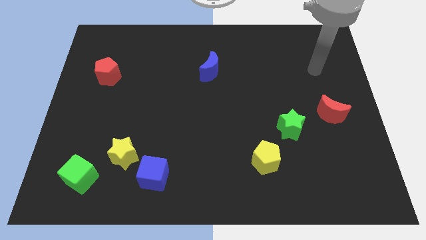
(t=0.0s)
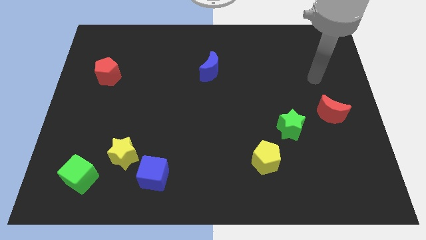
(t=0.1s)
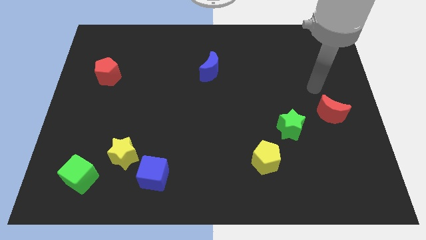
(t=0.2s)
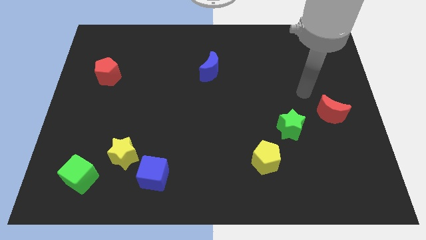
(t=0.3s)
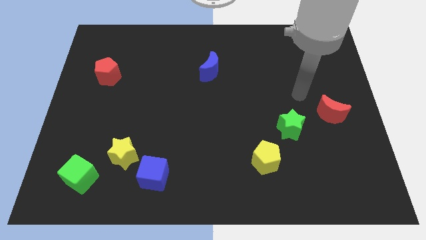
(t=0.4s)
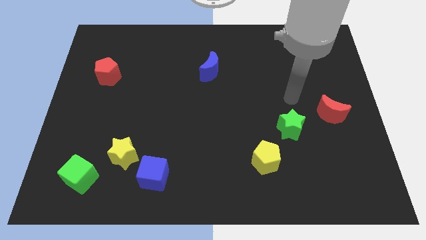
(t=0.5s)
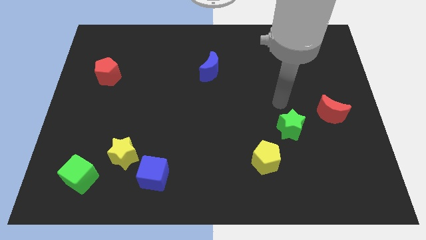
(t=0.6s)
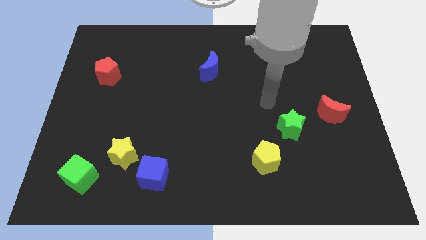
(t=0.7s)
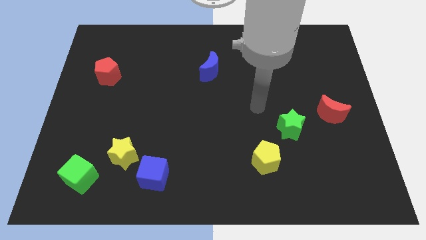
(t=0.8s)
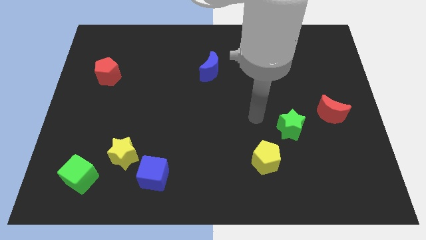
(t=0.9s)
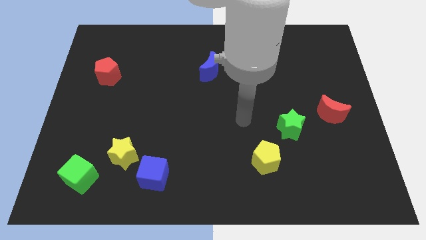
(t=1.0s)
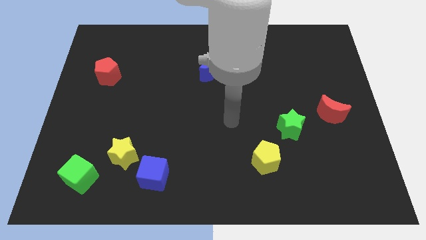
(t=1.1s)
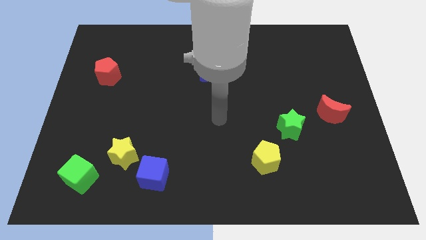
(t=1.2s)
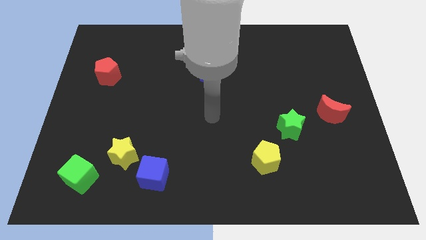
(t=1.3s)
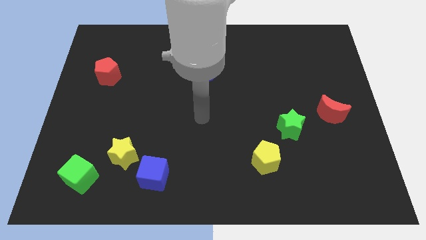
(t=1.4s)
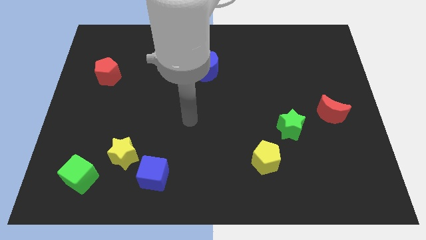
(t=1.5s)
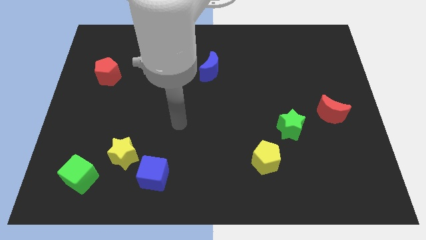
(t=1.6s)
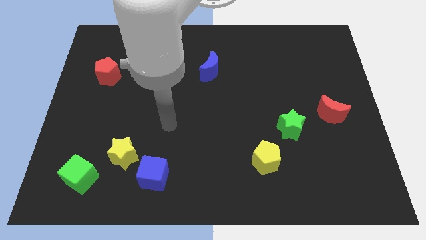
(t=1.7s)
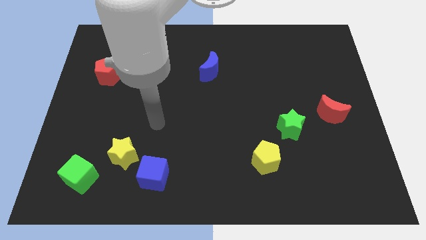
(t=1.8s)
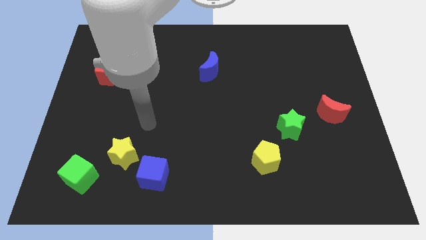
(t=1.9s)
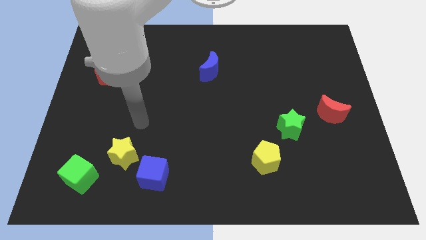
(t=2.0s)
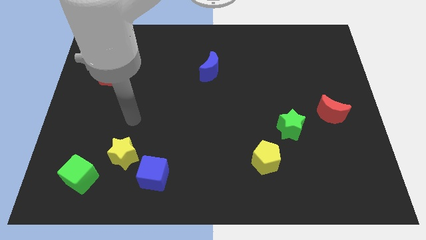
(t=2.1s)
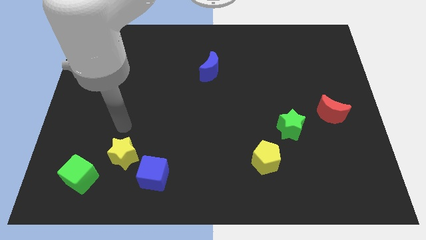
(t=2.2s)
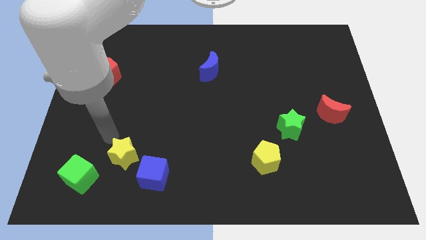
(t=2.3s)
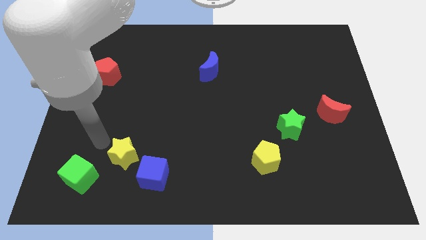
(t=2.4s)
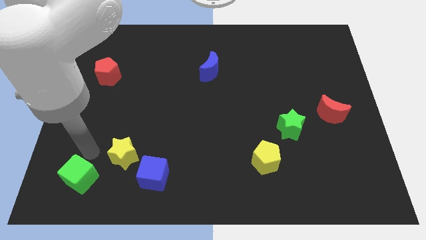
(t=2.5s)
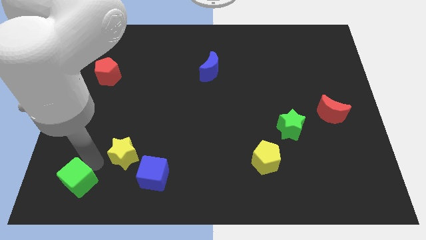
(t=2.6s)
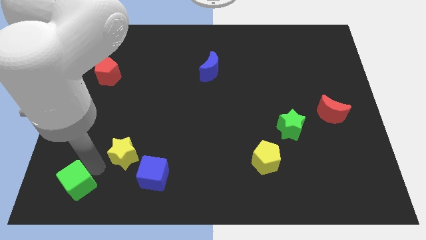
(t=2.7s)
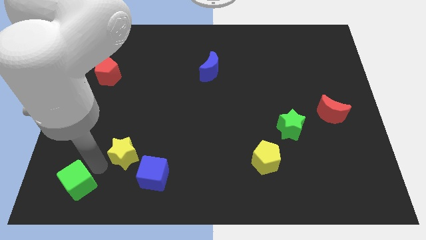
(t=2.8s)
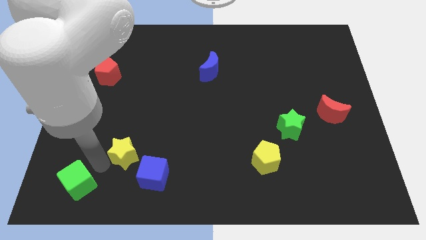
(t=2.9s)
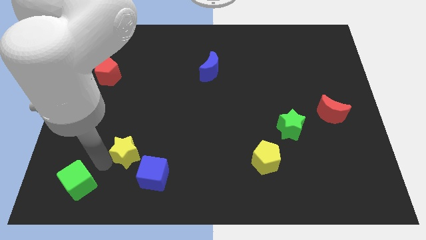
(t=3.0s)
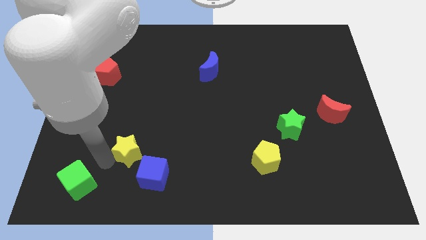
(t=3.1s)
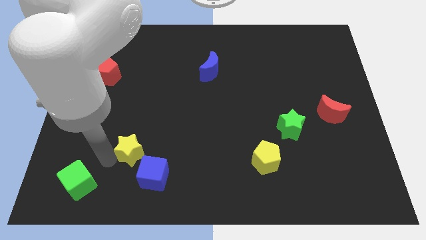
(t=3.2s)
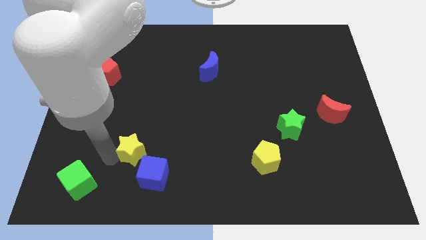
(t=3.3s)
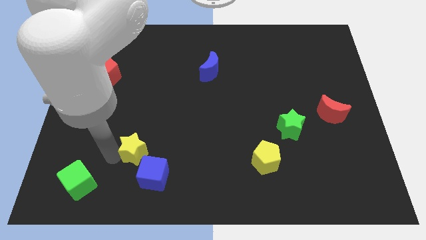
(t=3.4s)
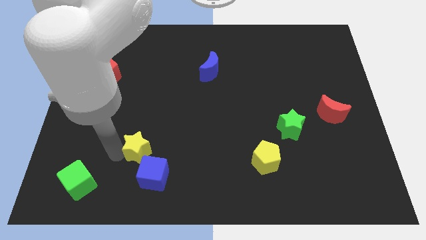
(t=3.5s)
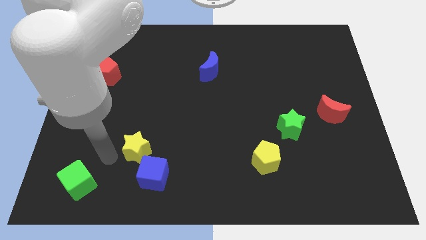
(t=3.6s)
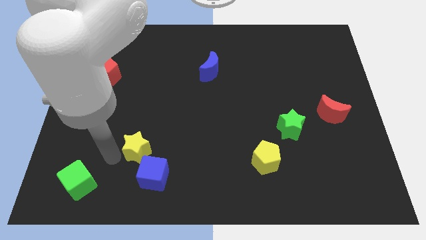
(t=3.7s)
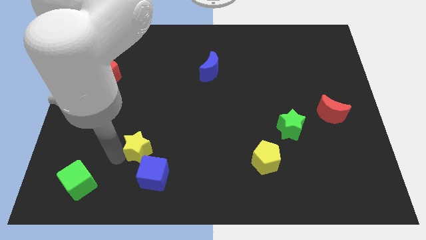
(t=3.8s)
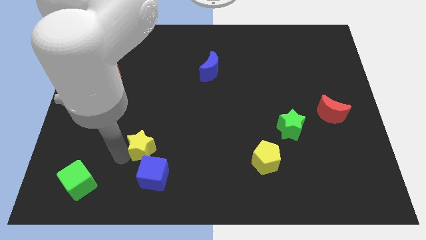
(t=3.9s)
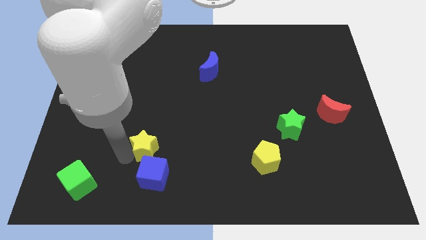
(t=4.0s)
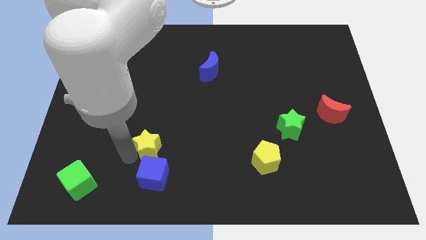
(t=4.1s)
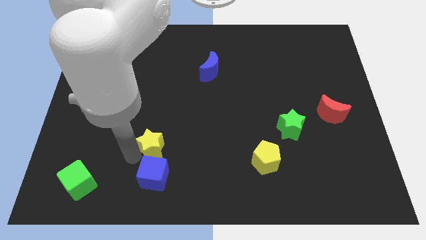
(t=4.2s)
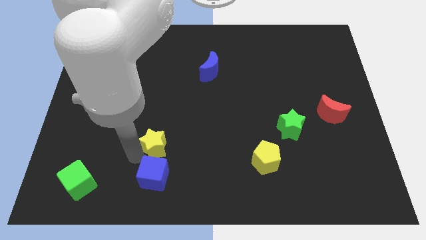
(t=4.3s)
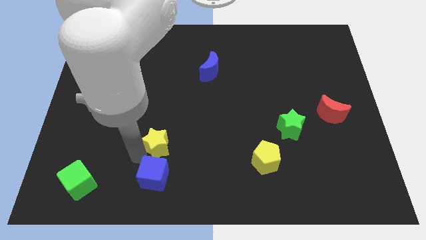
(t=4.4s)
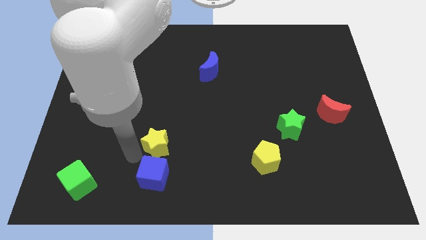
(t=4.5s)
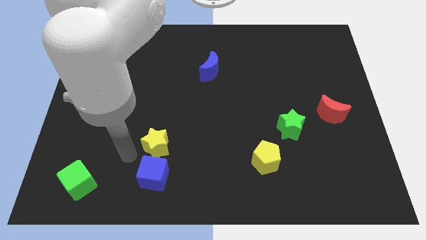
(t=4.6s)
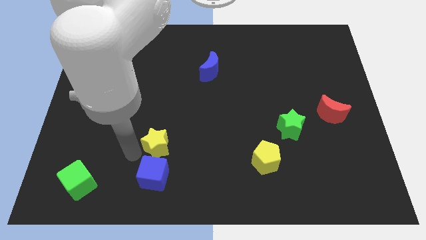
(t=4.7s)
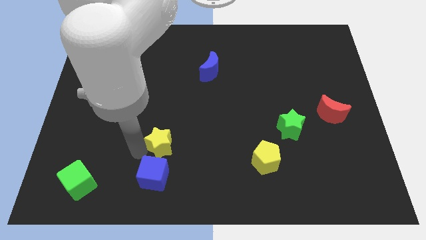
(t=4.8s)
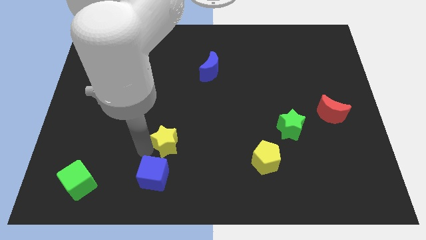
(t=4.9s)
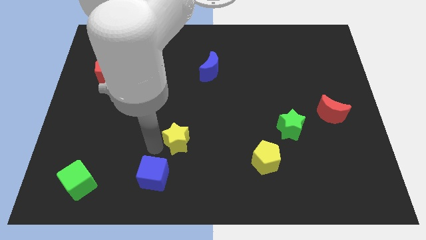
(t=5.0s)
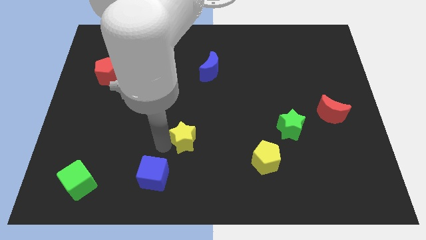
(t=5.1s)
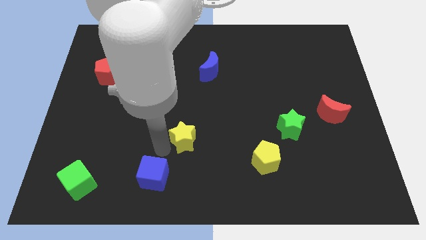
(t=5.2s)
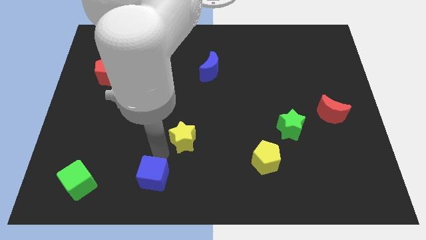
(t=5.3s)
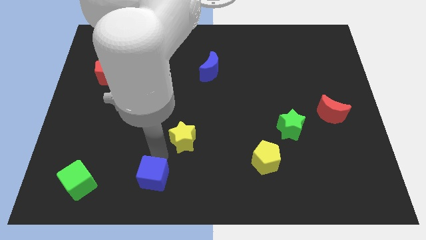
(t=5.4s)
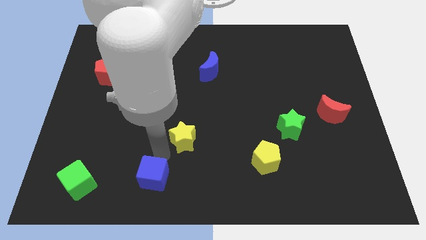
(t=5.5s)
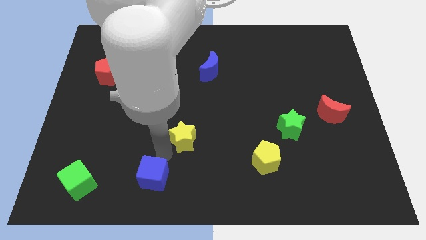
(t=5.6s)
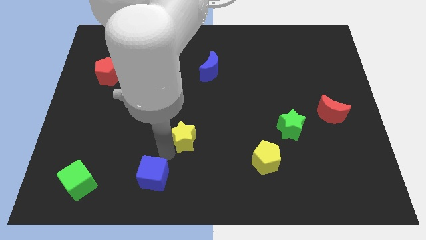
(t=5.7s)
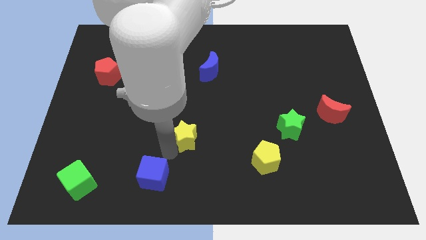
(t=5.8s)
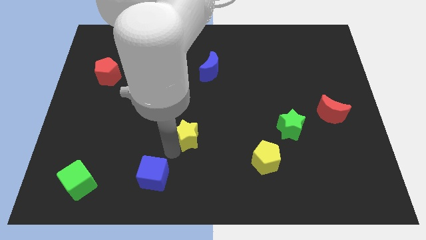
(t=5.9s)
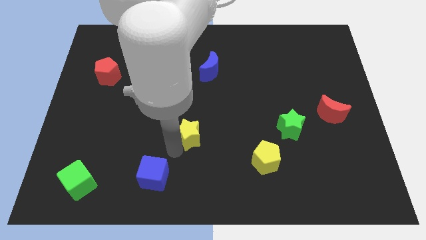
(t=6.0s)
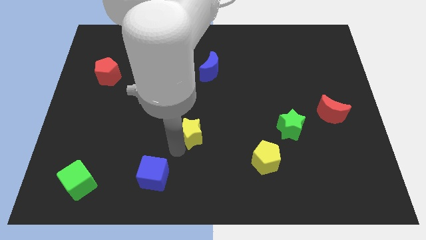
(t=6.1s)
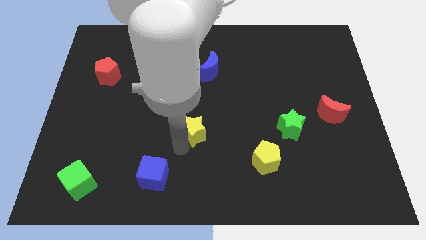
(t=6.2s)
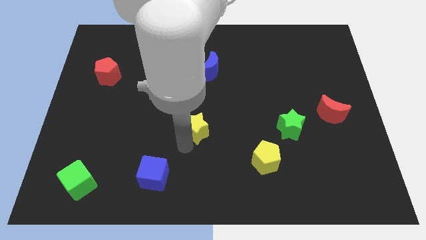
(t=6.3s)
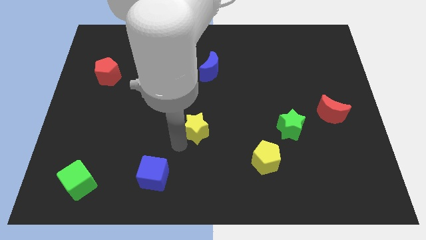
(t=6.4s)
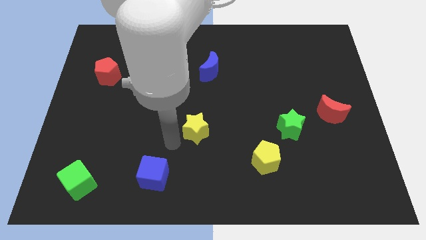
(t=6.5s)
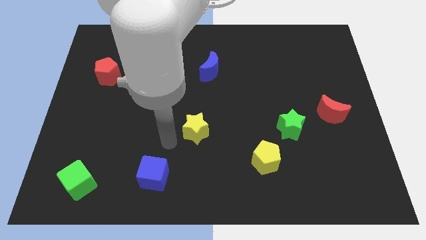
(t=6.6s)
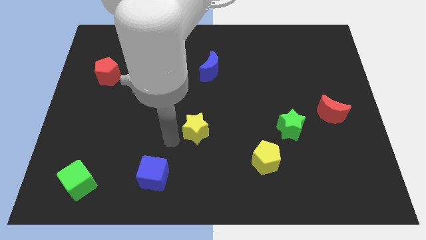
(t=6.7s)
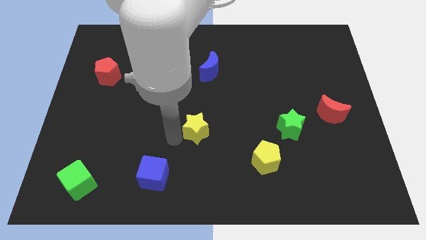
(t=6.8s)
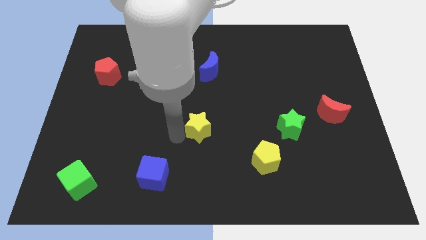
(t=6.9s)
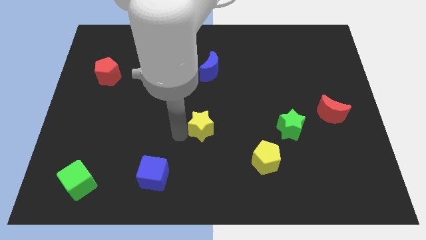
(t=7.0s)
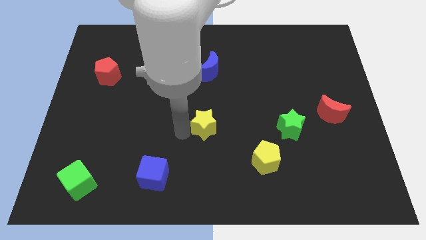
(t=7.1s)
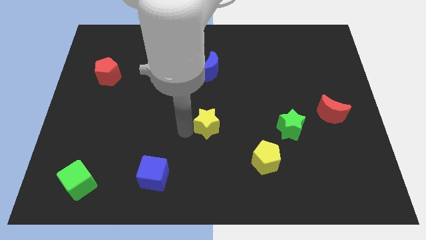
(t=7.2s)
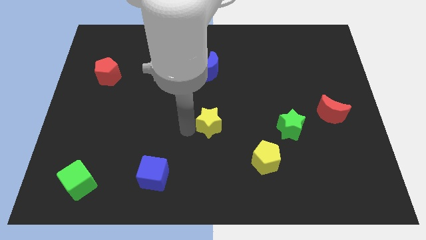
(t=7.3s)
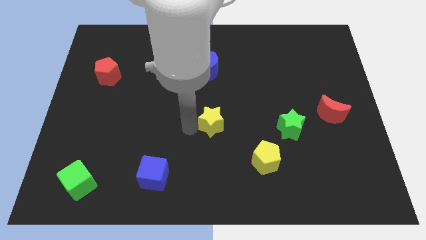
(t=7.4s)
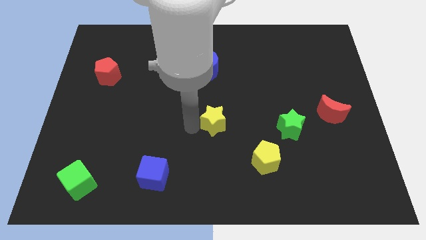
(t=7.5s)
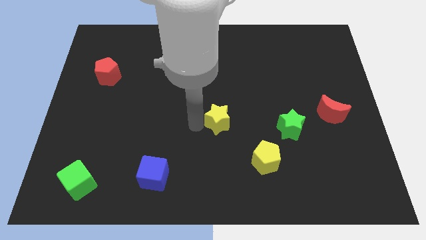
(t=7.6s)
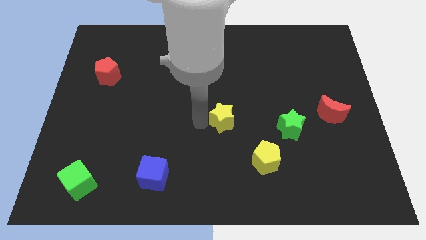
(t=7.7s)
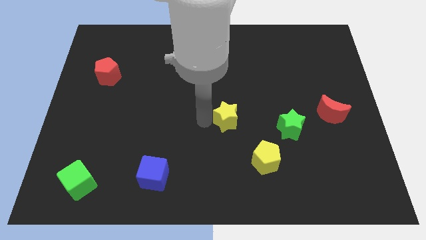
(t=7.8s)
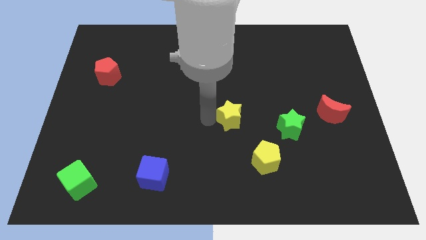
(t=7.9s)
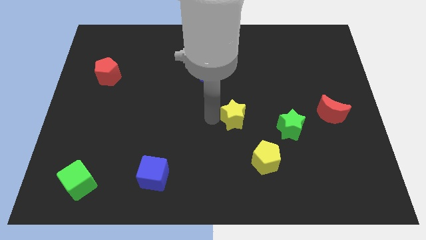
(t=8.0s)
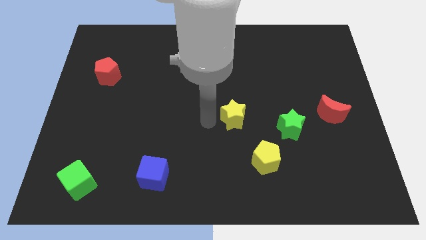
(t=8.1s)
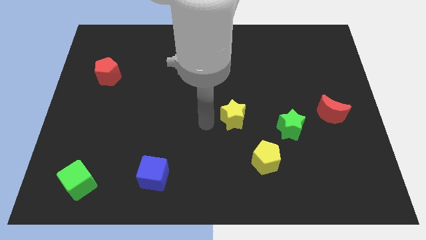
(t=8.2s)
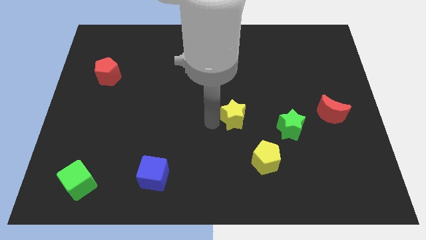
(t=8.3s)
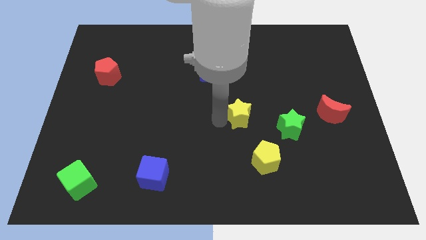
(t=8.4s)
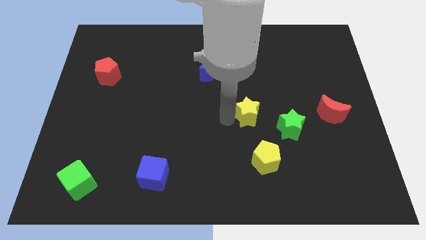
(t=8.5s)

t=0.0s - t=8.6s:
move the yellow star diagonally up and to the left of the green star
